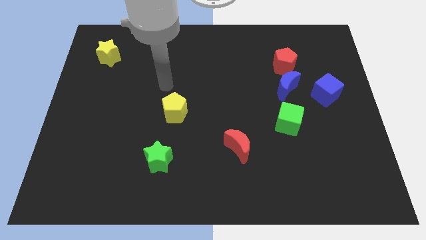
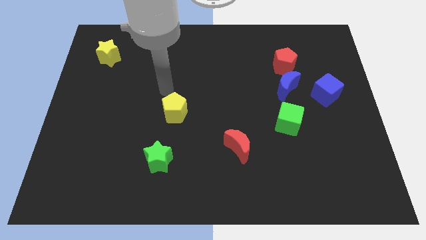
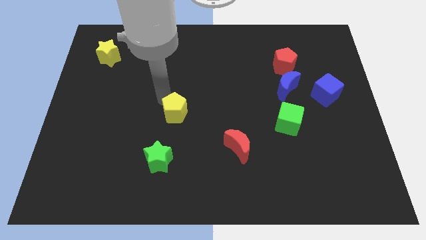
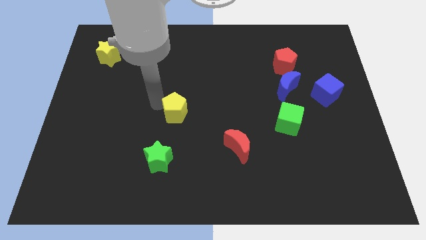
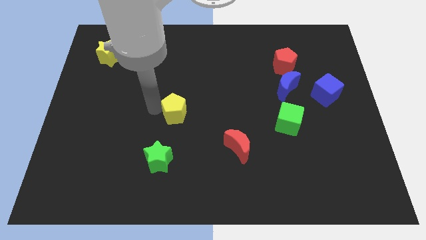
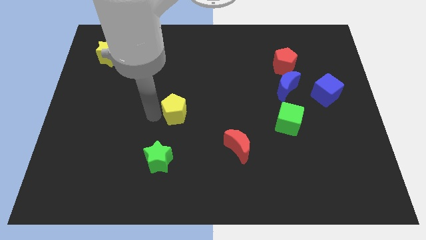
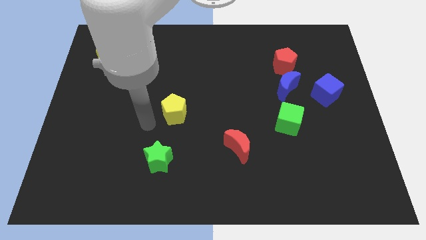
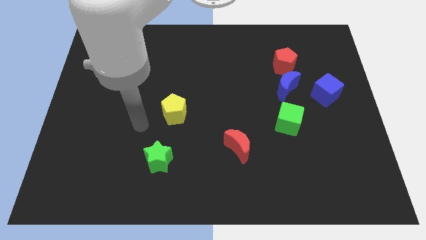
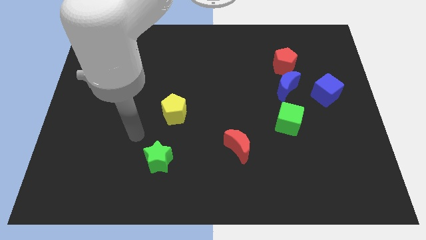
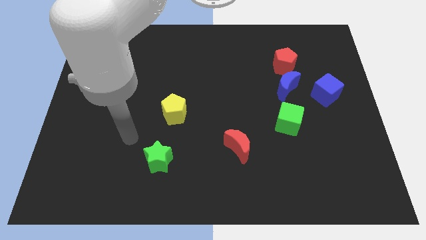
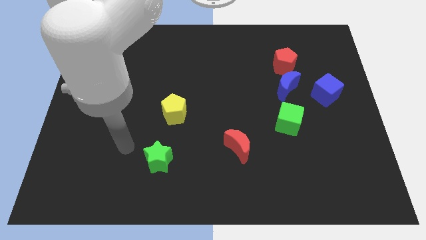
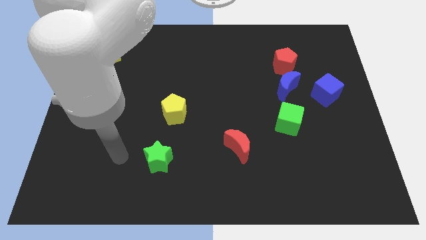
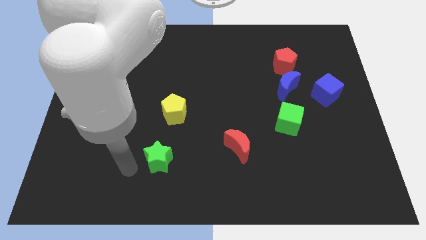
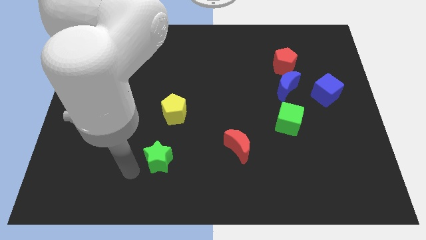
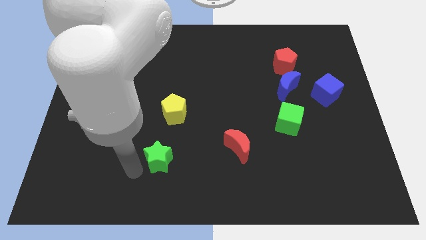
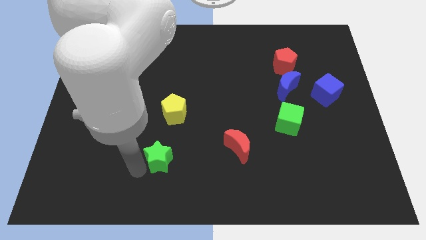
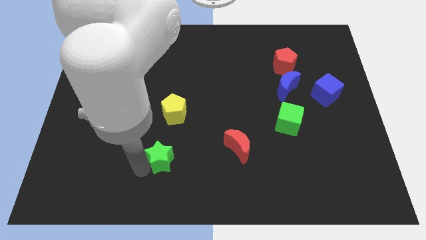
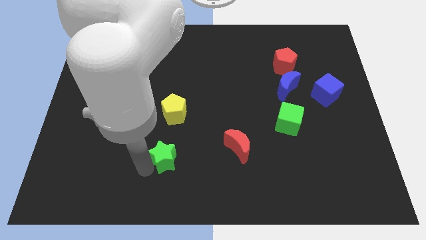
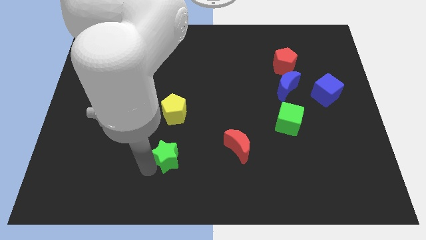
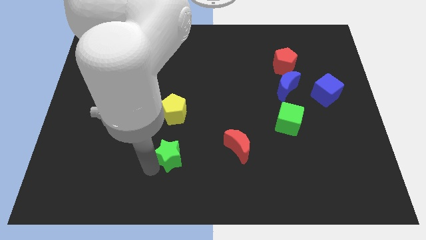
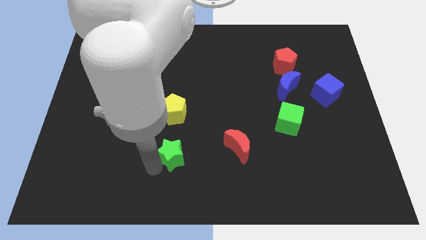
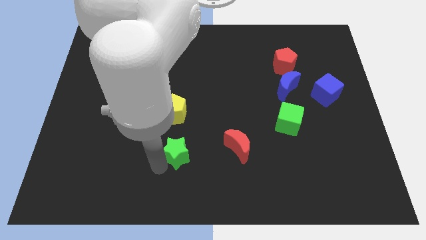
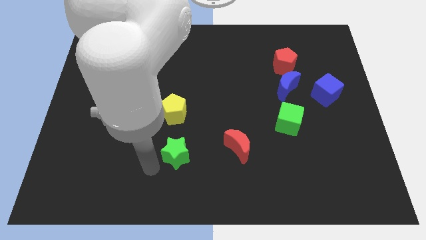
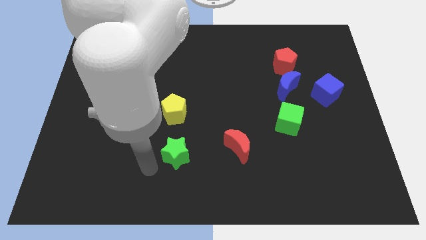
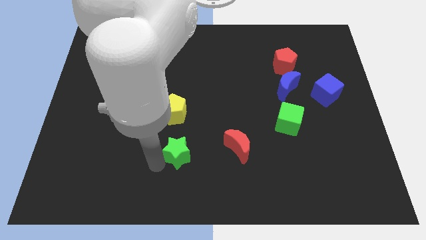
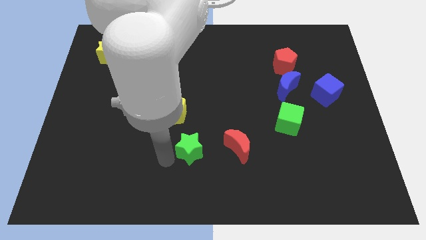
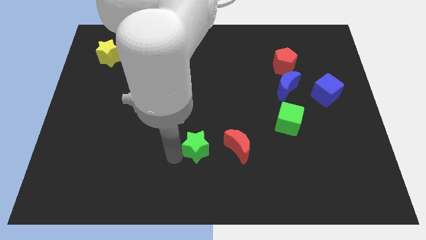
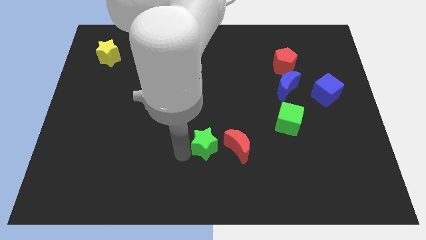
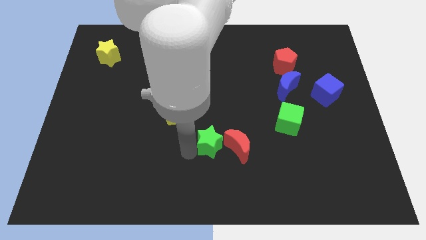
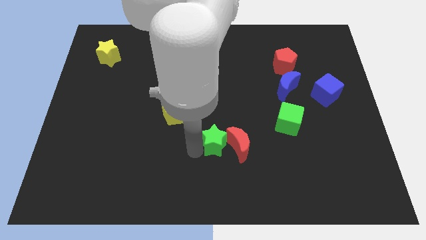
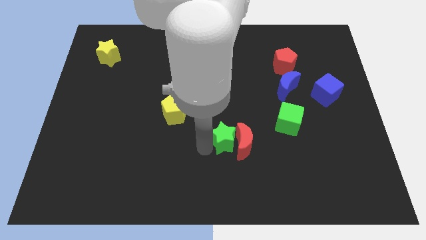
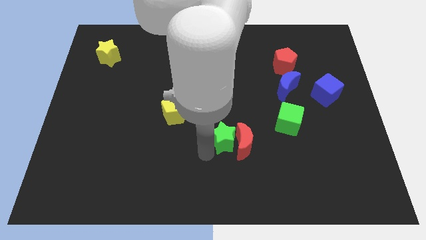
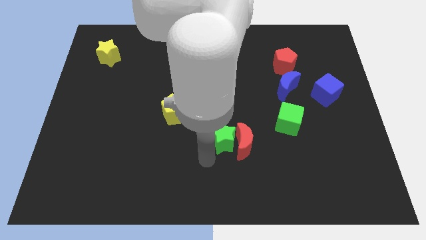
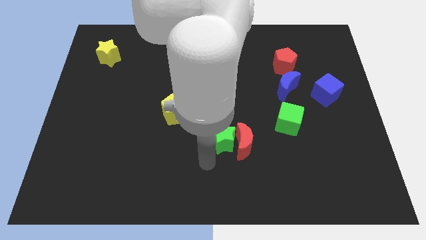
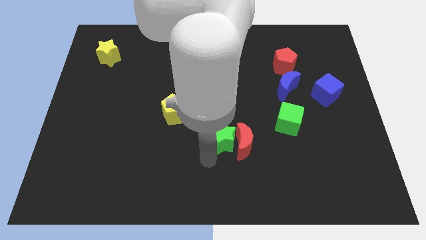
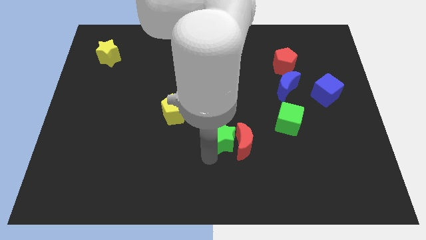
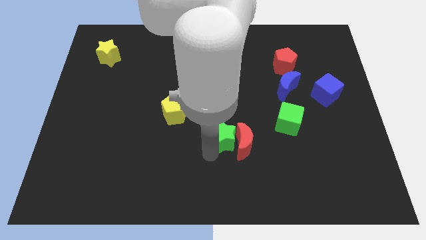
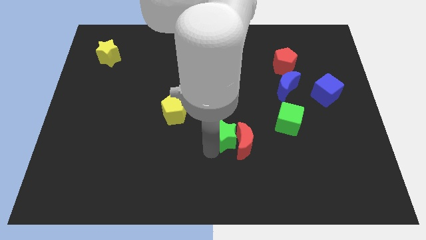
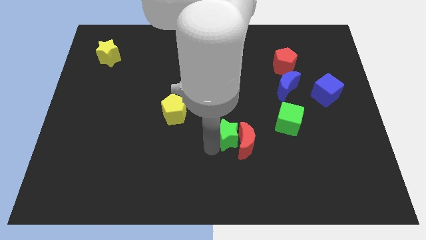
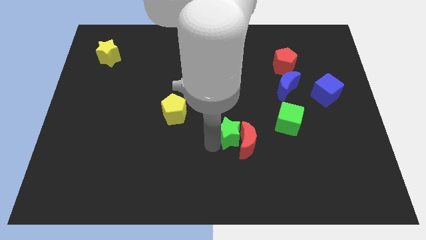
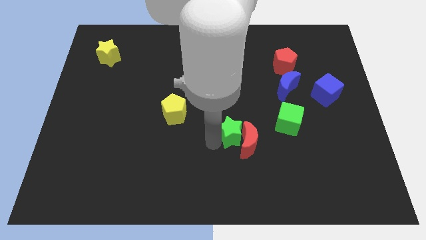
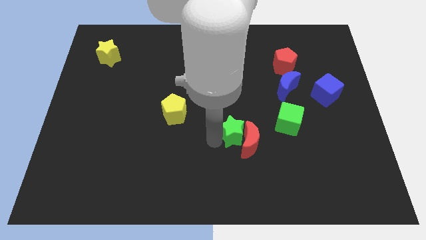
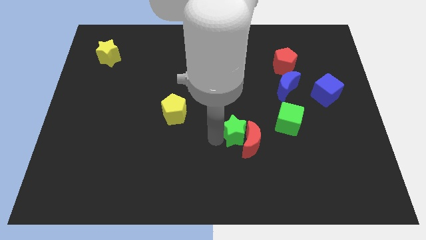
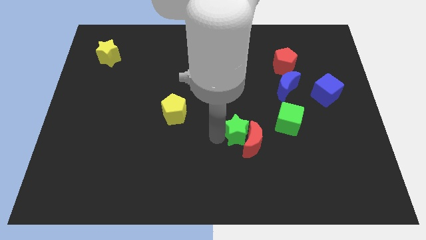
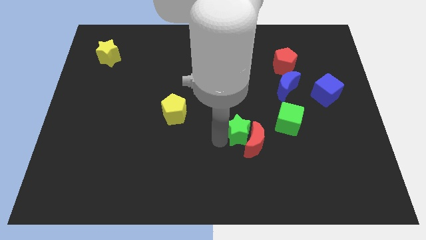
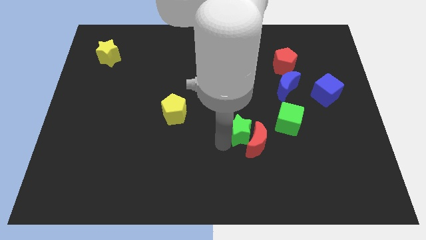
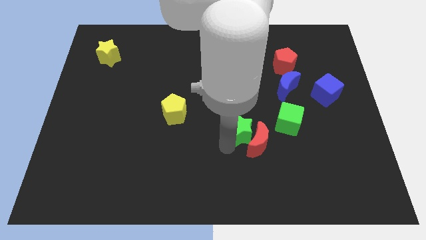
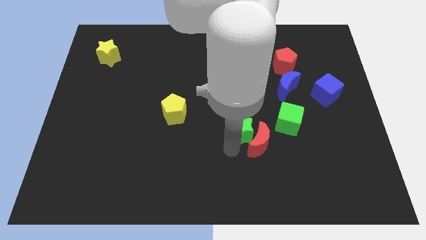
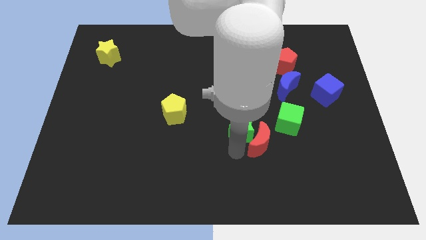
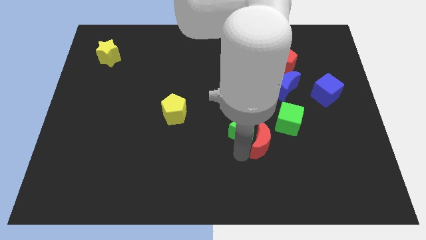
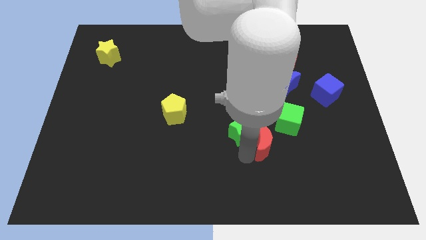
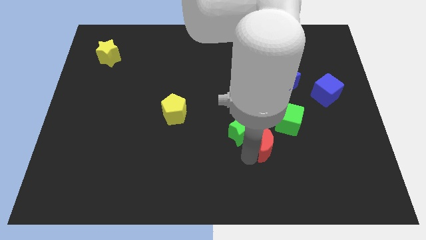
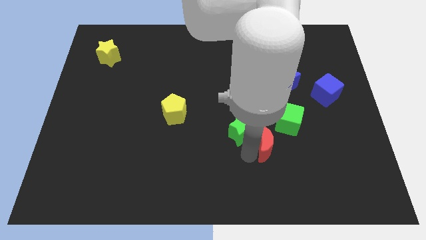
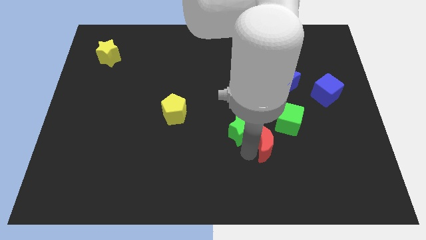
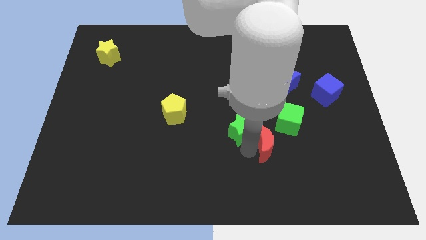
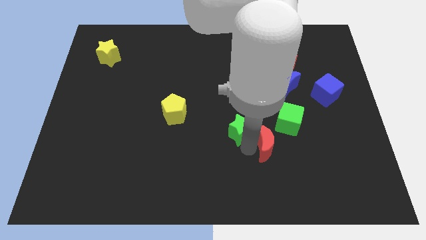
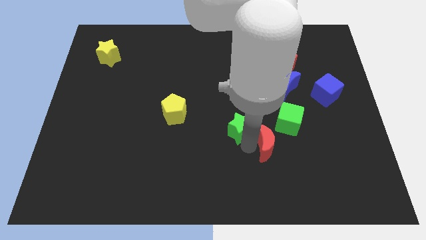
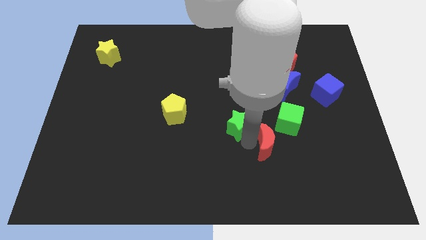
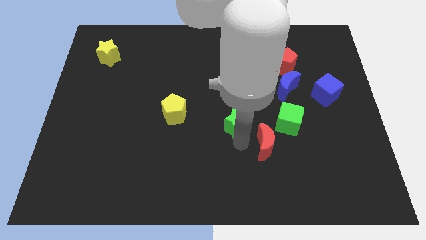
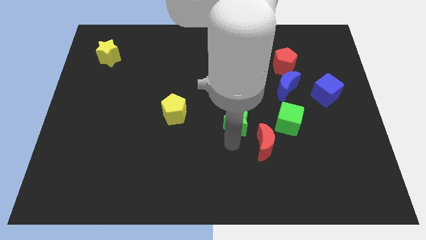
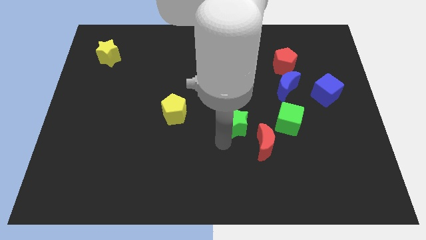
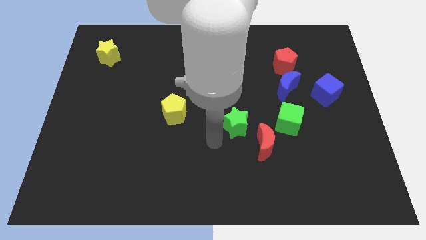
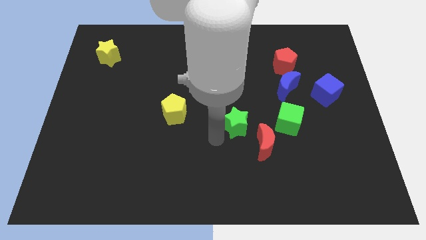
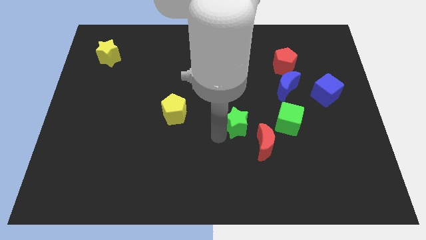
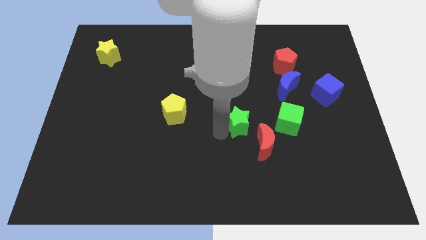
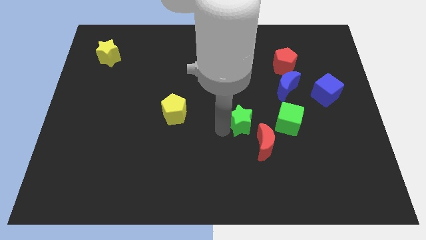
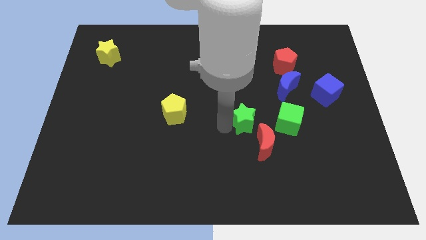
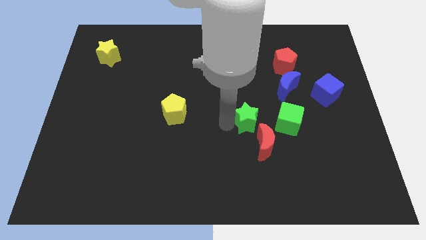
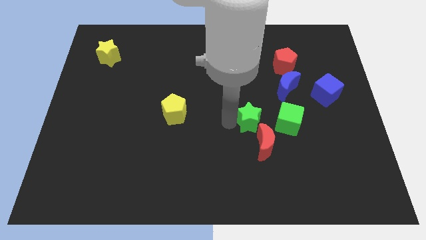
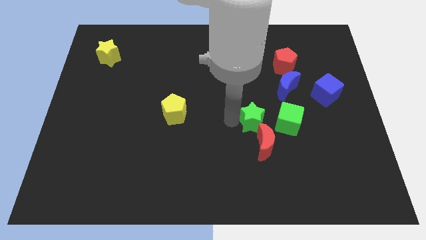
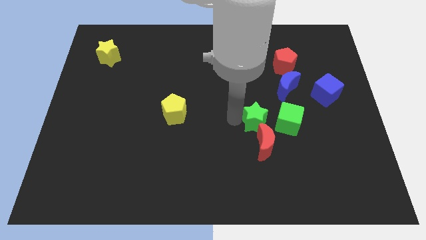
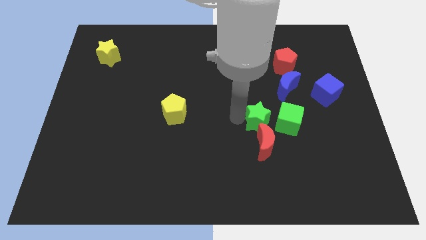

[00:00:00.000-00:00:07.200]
put the green star diagonally up and to the left of the green cube

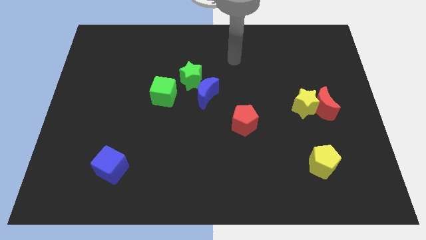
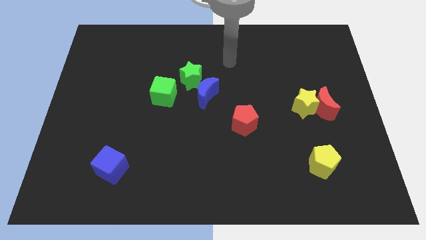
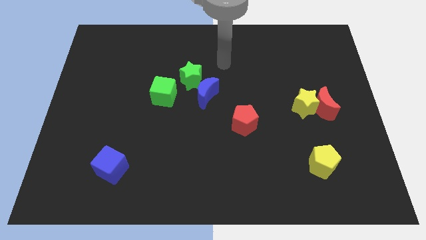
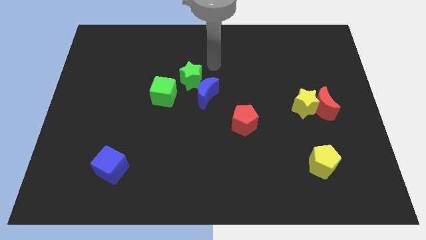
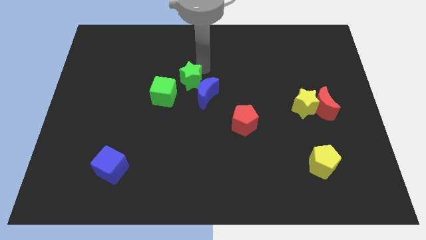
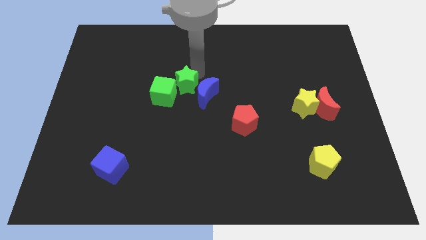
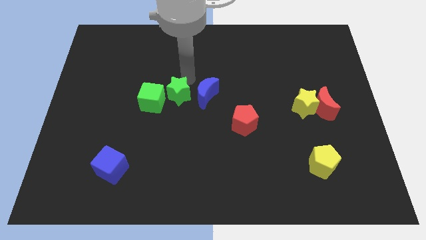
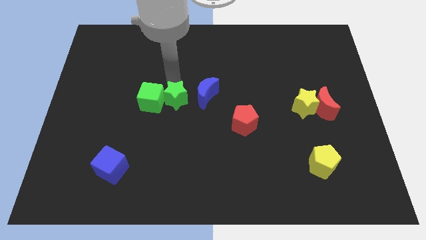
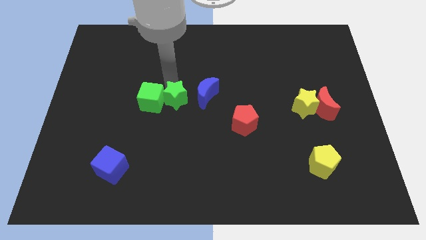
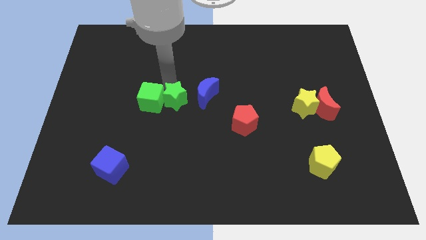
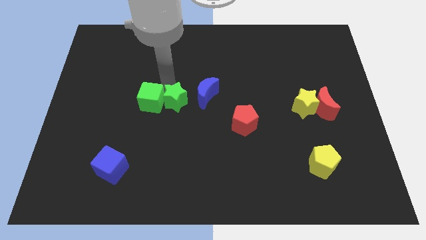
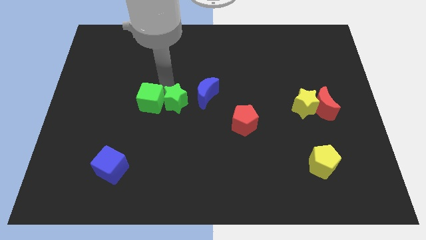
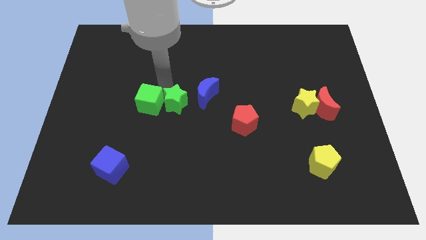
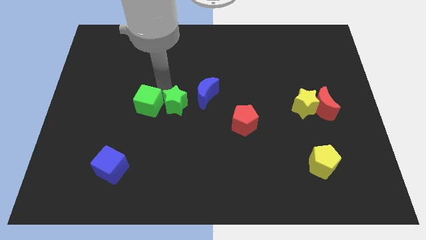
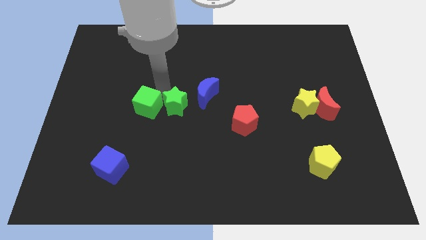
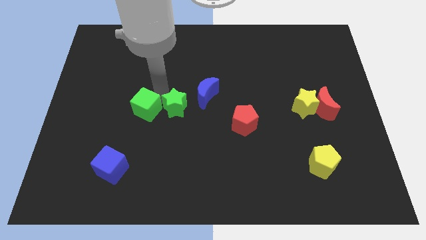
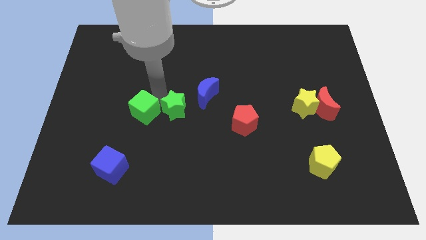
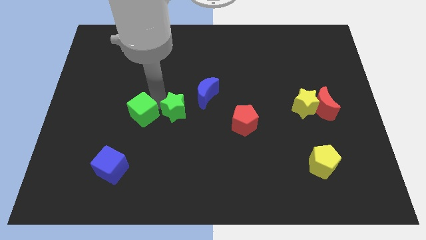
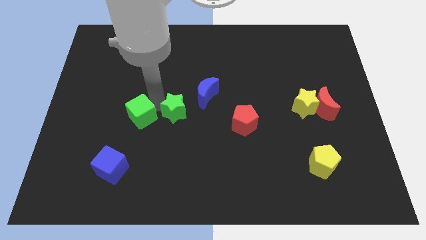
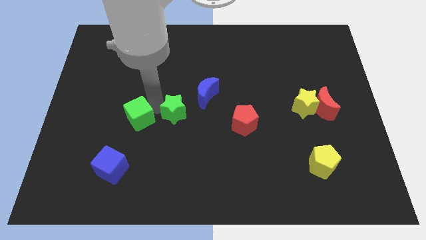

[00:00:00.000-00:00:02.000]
move the green cube above the blue cube
